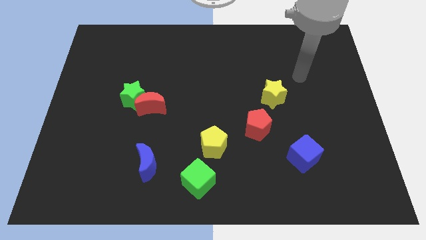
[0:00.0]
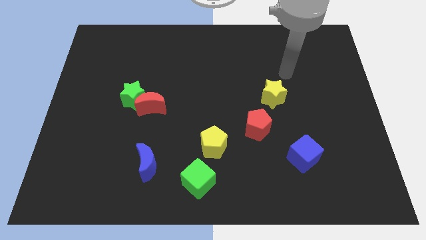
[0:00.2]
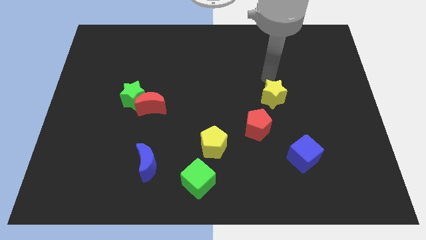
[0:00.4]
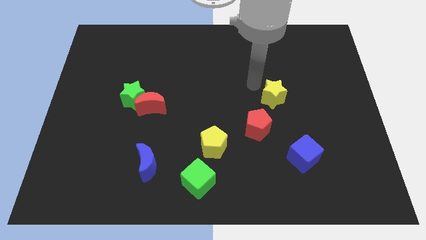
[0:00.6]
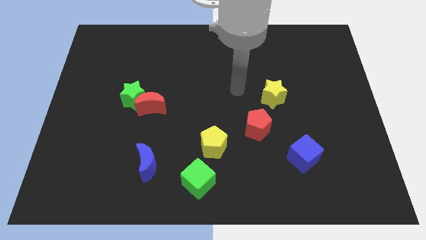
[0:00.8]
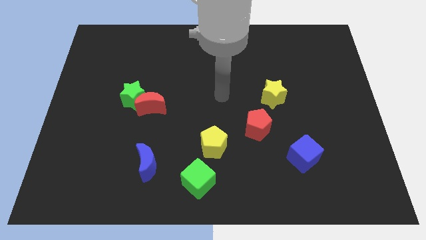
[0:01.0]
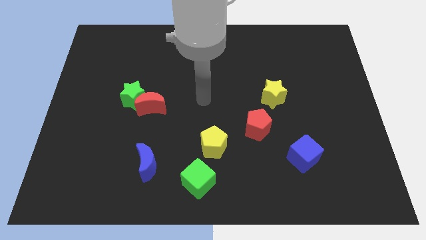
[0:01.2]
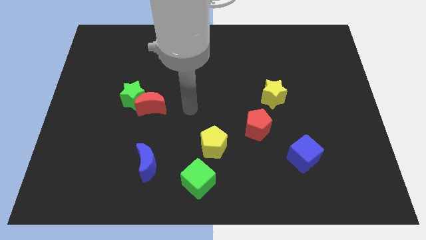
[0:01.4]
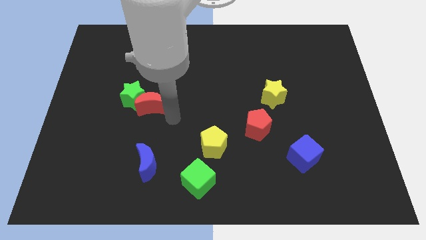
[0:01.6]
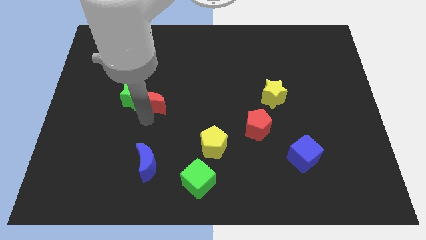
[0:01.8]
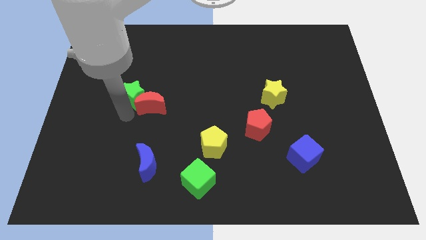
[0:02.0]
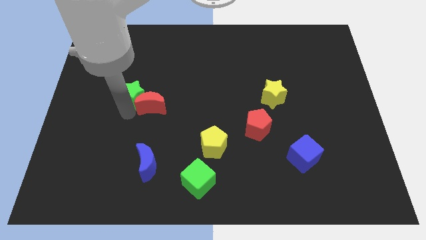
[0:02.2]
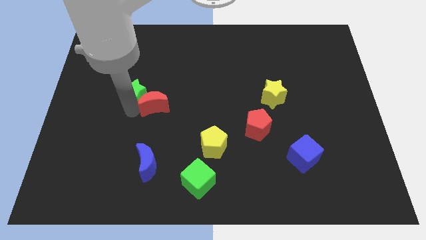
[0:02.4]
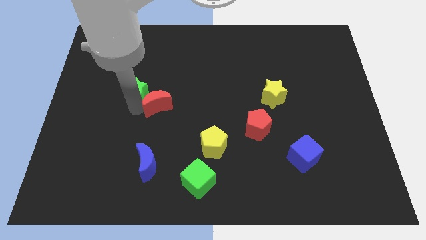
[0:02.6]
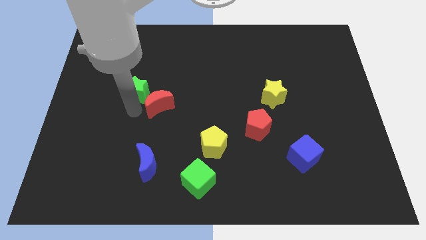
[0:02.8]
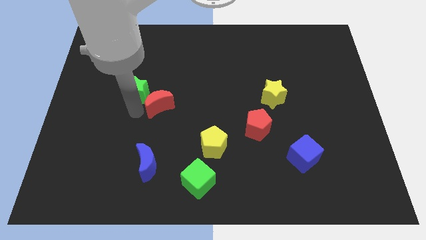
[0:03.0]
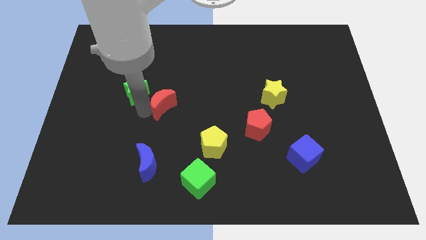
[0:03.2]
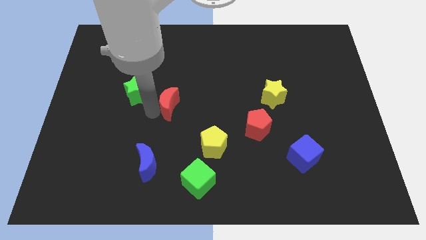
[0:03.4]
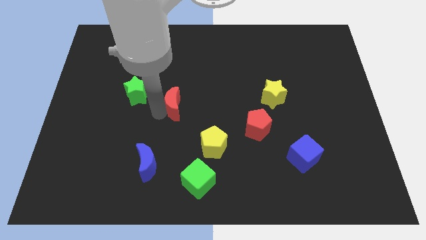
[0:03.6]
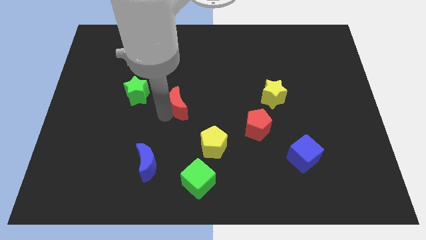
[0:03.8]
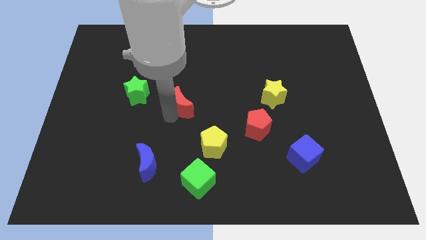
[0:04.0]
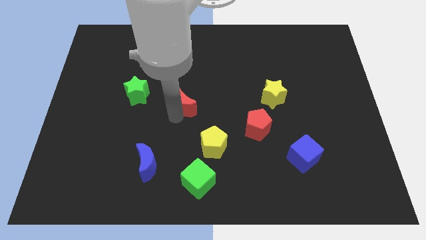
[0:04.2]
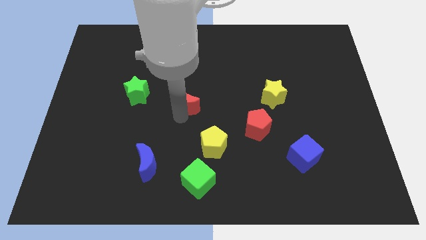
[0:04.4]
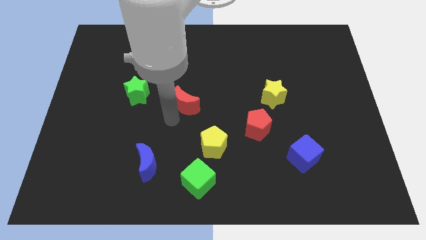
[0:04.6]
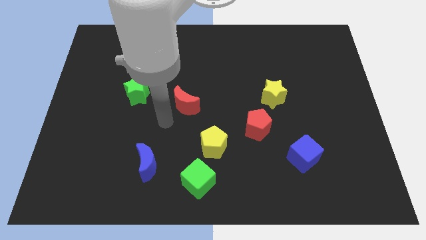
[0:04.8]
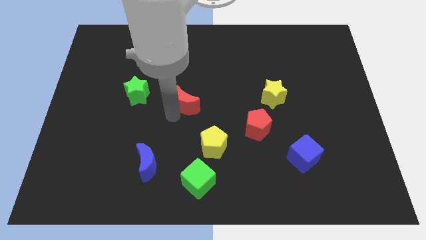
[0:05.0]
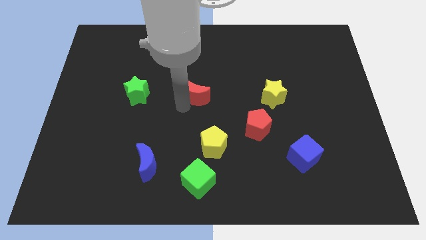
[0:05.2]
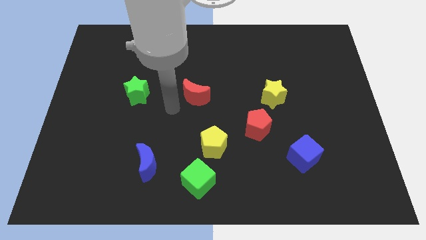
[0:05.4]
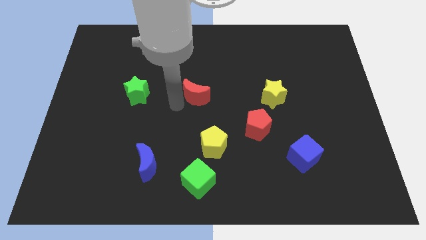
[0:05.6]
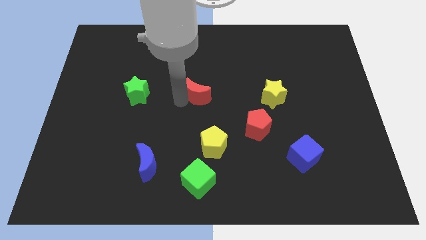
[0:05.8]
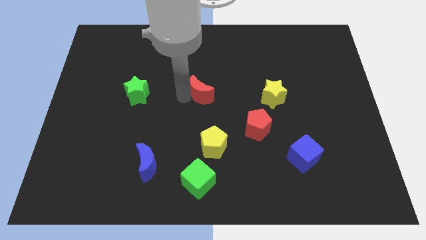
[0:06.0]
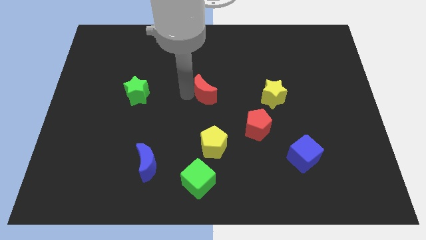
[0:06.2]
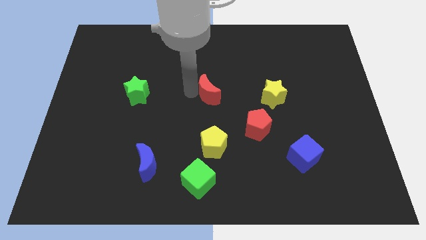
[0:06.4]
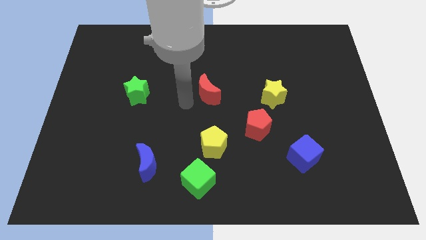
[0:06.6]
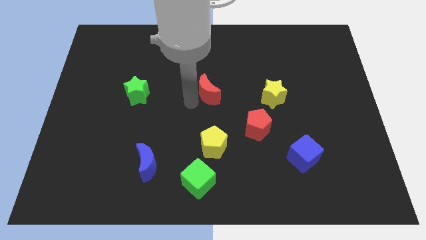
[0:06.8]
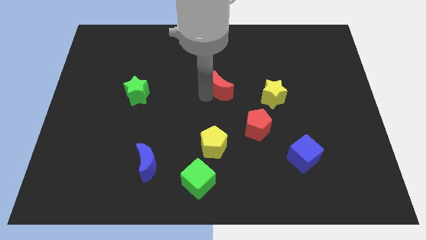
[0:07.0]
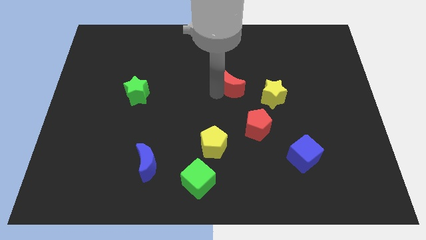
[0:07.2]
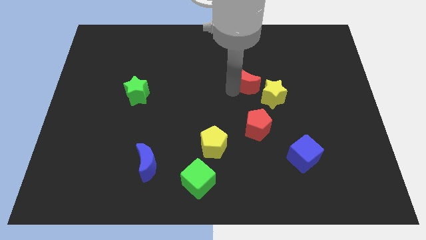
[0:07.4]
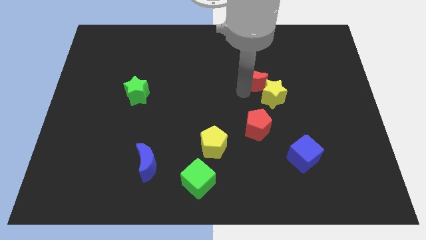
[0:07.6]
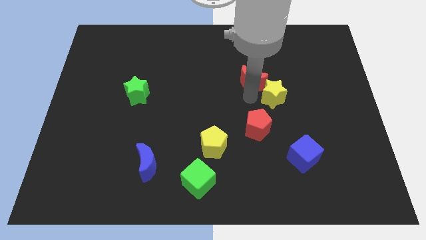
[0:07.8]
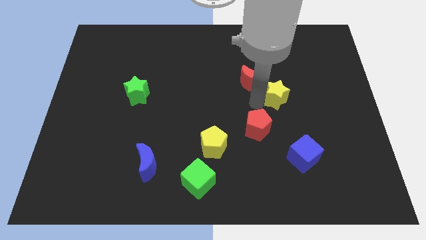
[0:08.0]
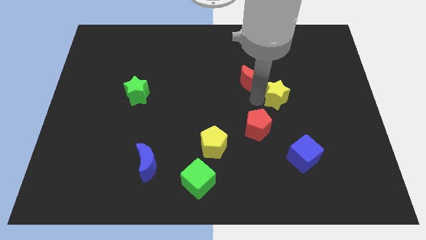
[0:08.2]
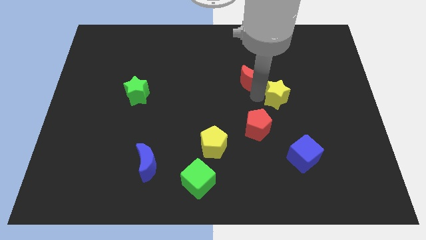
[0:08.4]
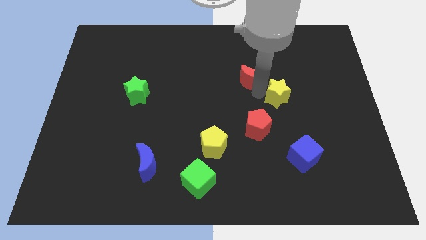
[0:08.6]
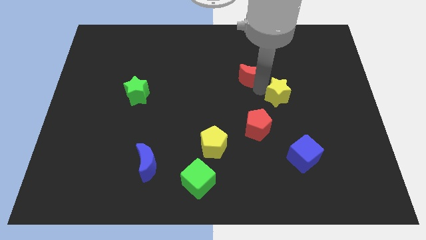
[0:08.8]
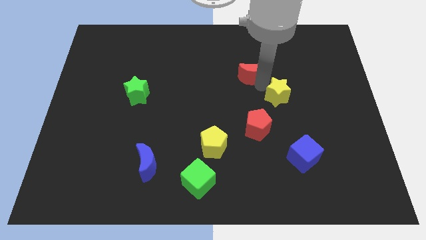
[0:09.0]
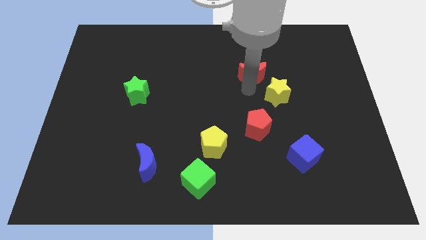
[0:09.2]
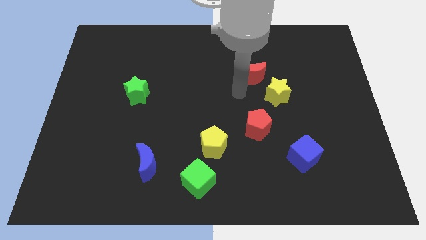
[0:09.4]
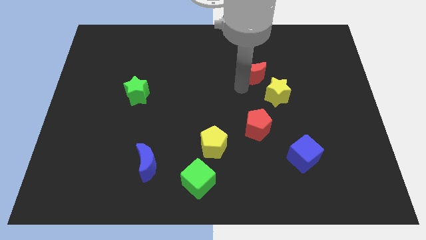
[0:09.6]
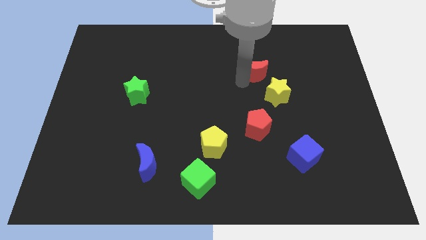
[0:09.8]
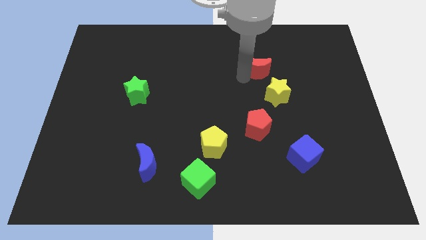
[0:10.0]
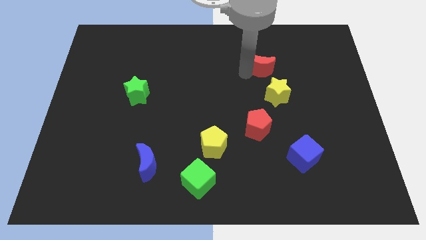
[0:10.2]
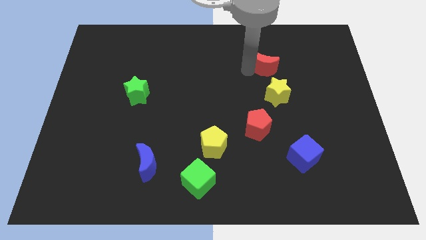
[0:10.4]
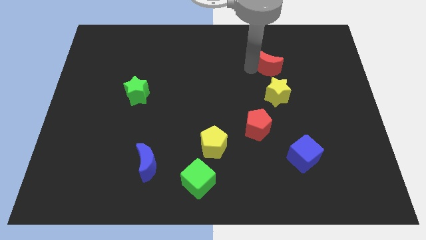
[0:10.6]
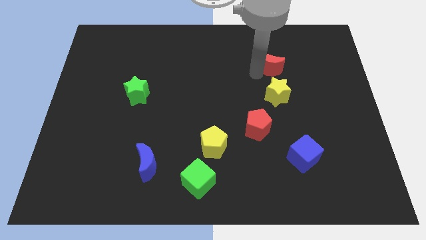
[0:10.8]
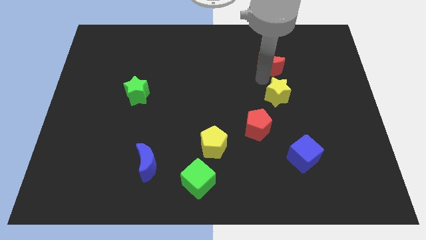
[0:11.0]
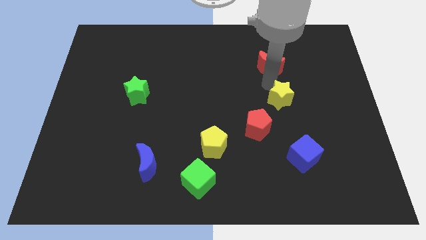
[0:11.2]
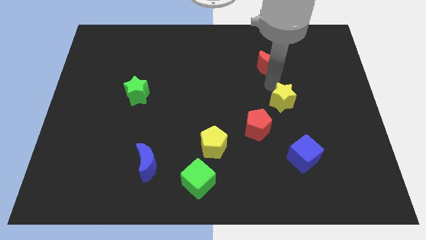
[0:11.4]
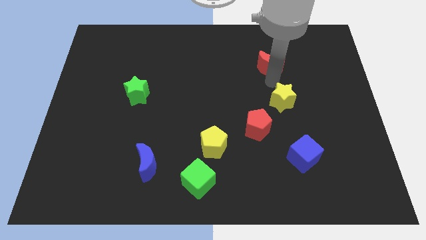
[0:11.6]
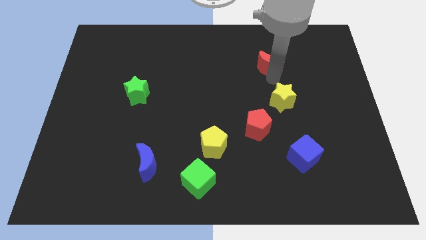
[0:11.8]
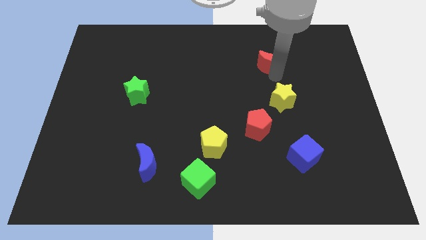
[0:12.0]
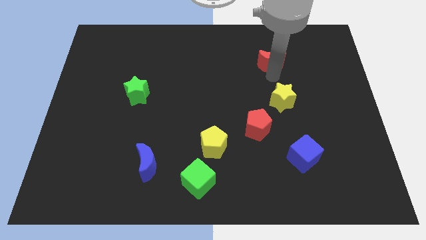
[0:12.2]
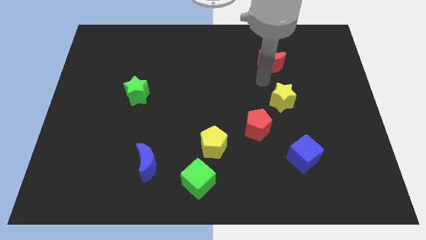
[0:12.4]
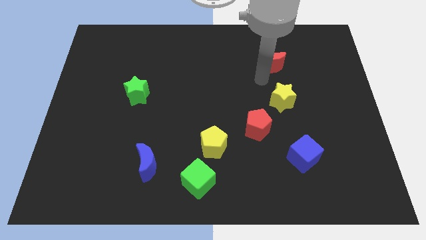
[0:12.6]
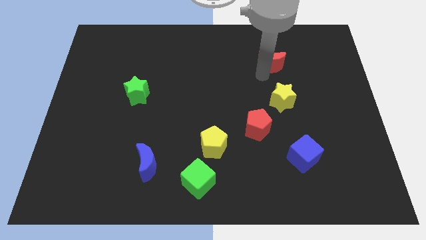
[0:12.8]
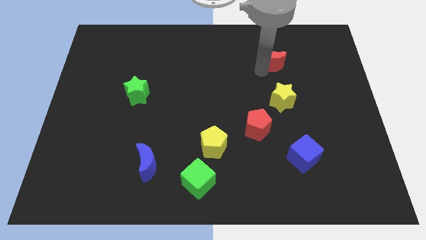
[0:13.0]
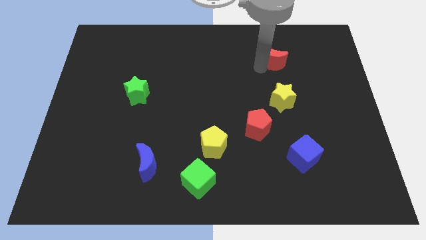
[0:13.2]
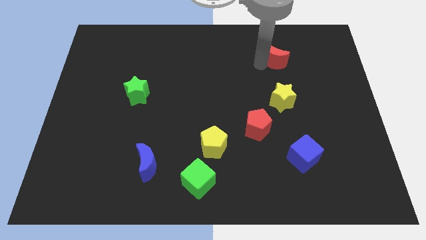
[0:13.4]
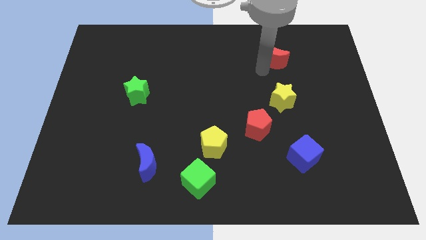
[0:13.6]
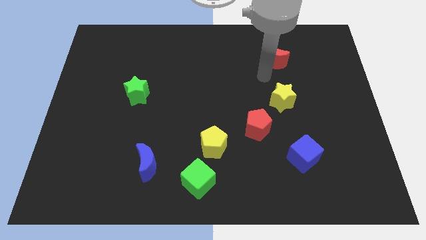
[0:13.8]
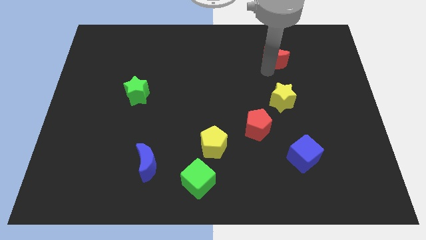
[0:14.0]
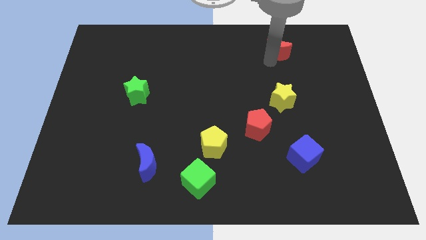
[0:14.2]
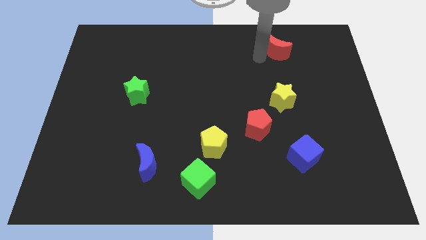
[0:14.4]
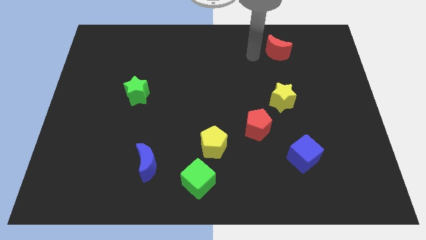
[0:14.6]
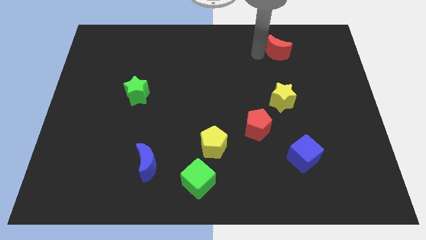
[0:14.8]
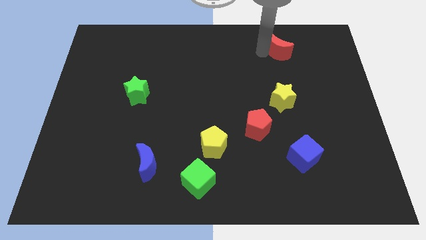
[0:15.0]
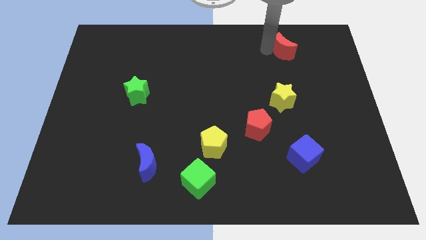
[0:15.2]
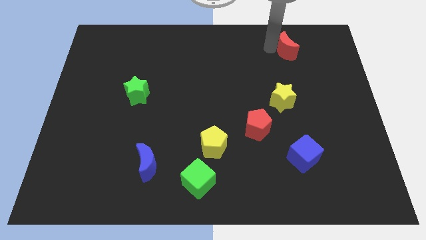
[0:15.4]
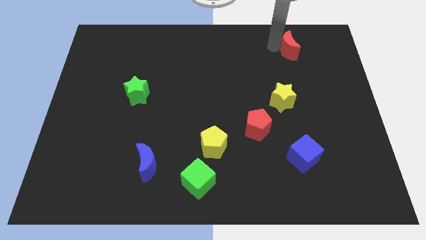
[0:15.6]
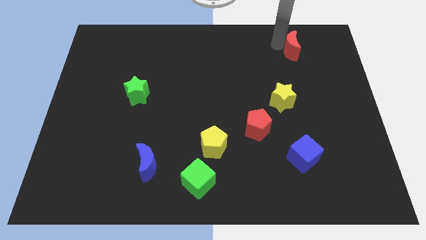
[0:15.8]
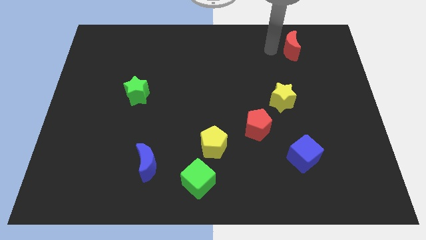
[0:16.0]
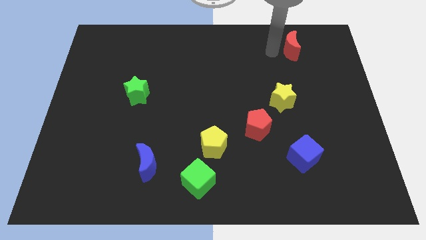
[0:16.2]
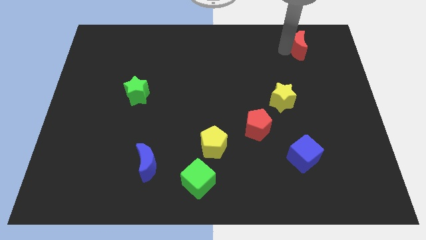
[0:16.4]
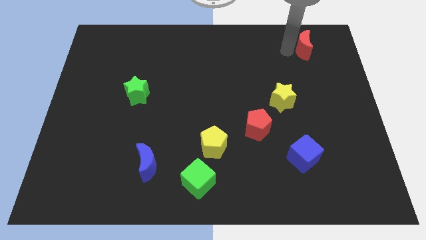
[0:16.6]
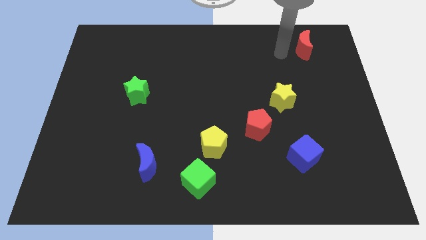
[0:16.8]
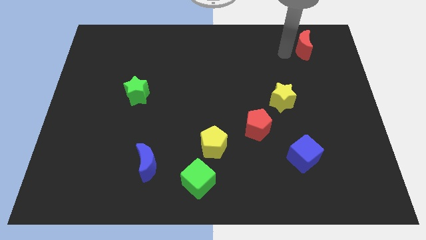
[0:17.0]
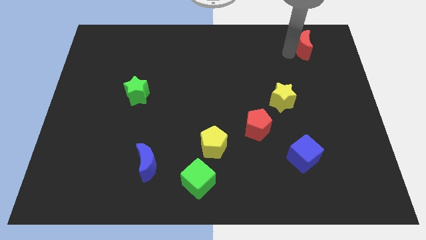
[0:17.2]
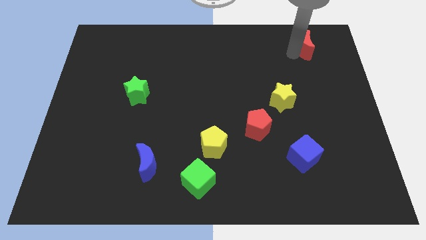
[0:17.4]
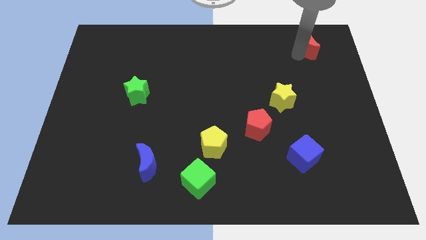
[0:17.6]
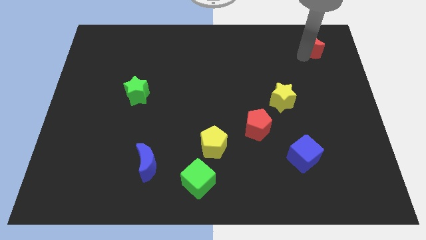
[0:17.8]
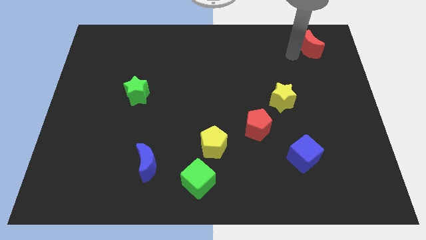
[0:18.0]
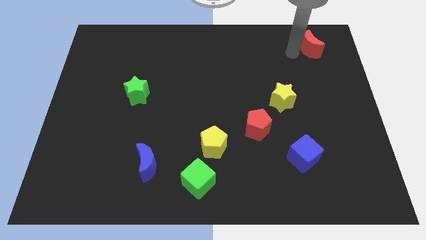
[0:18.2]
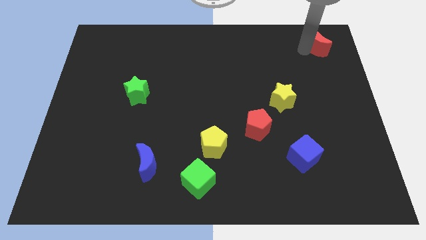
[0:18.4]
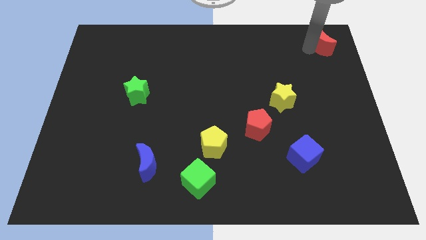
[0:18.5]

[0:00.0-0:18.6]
put the red moon to the upper right corner
